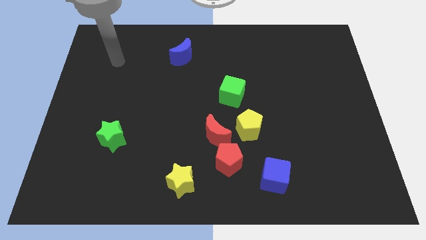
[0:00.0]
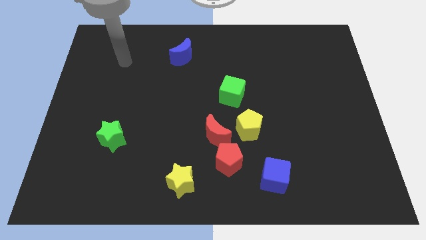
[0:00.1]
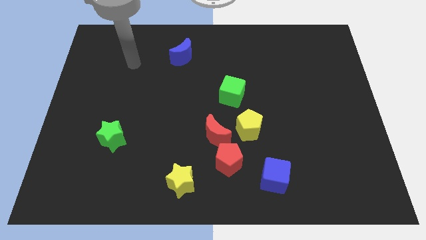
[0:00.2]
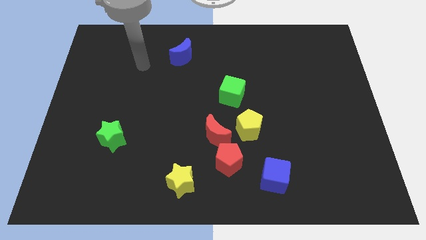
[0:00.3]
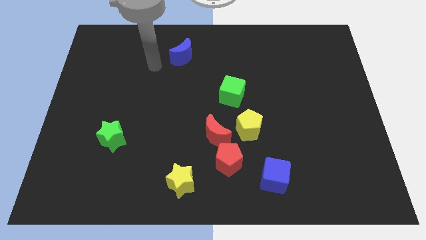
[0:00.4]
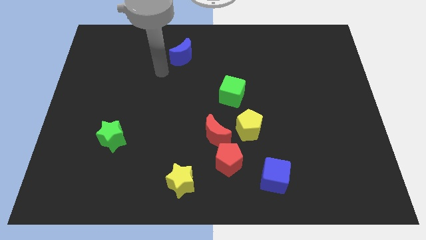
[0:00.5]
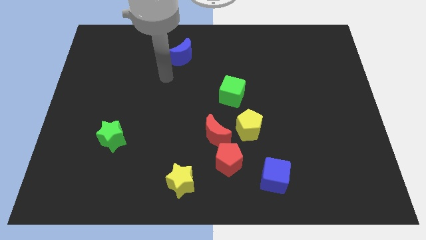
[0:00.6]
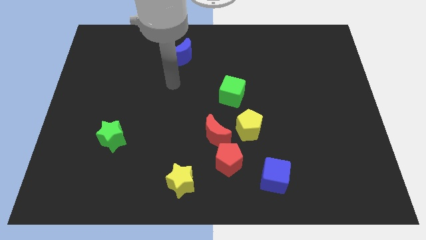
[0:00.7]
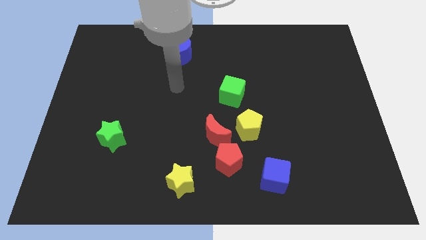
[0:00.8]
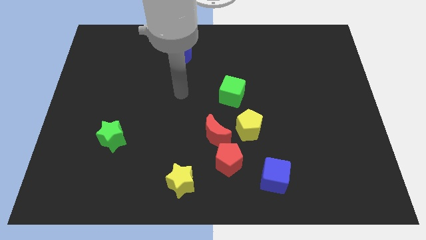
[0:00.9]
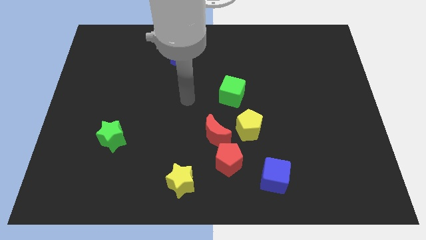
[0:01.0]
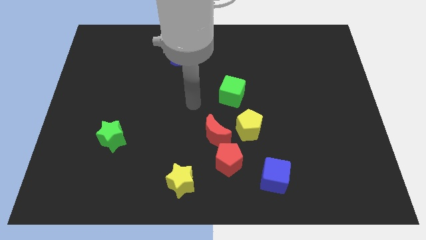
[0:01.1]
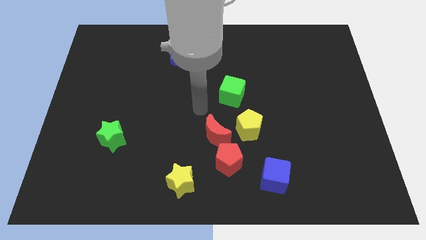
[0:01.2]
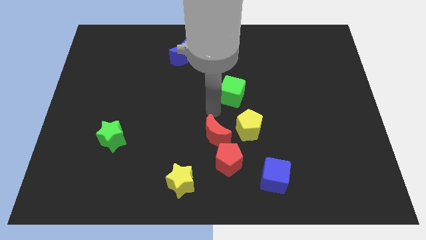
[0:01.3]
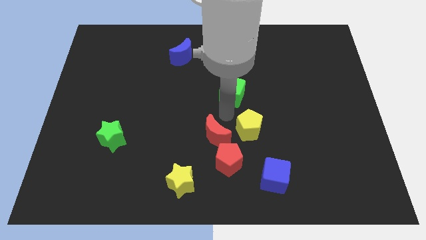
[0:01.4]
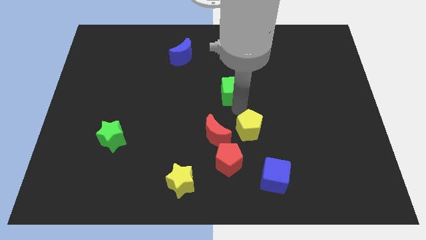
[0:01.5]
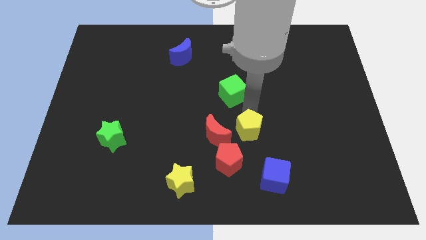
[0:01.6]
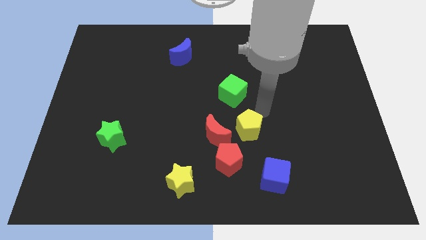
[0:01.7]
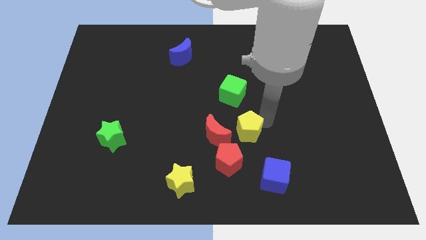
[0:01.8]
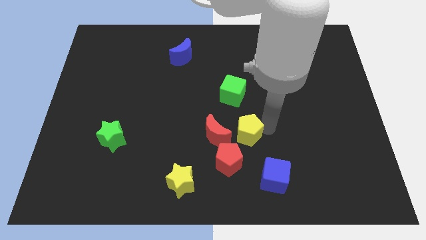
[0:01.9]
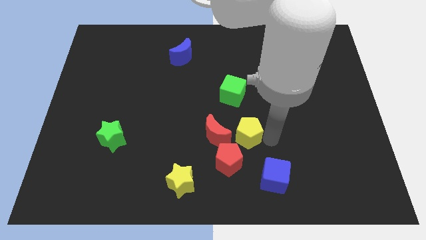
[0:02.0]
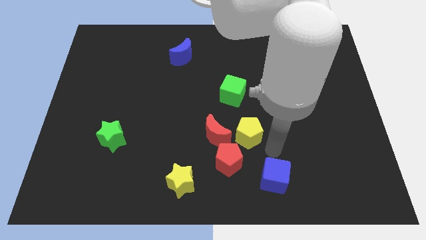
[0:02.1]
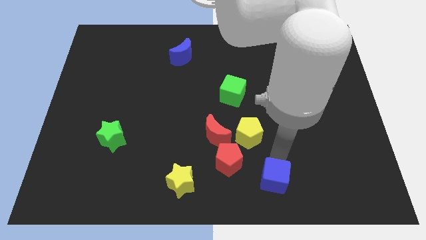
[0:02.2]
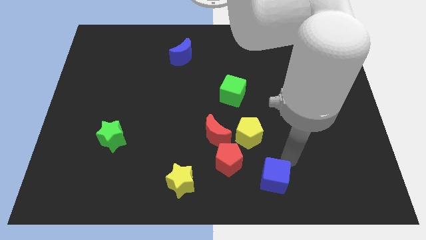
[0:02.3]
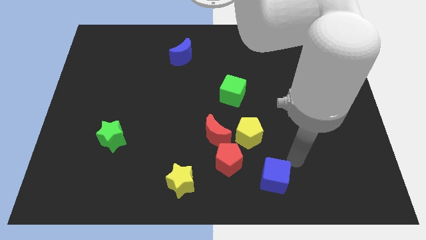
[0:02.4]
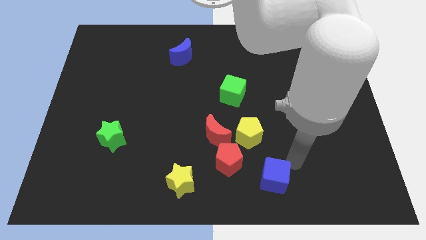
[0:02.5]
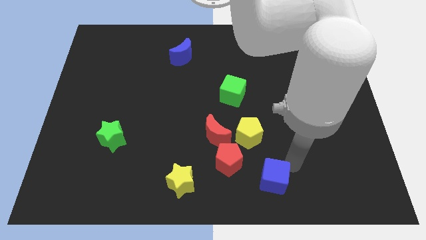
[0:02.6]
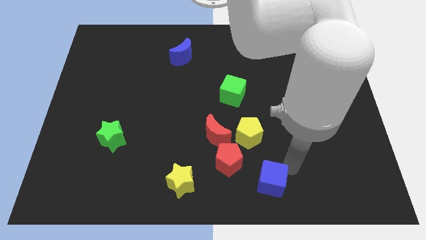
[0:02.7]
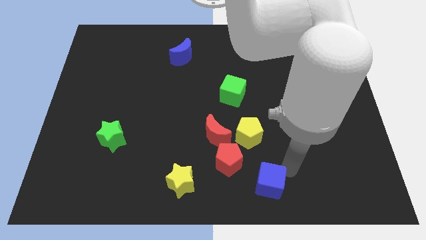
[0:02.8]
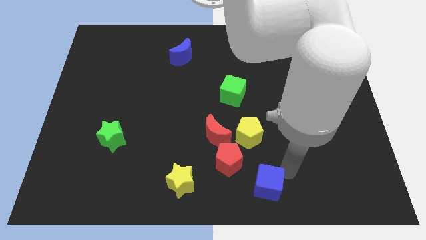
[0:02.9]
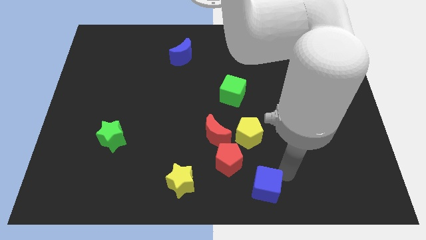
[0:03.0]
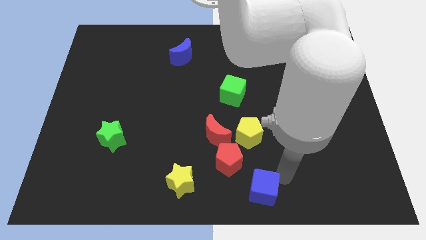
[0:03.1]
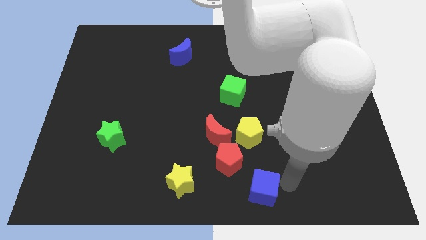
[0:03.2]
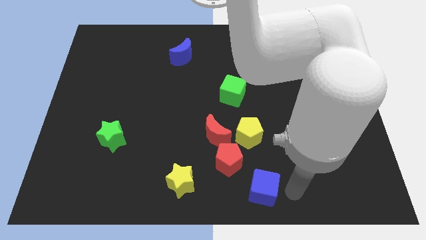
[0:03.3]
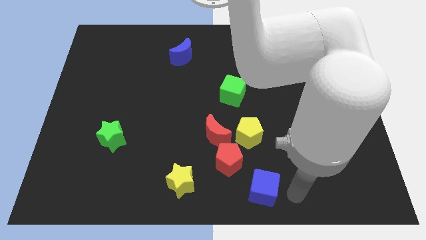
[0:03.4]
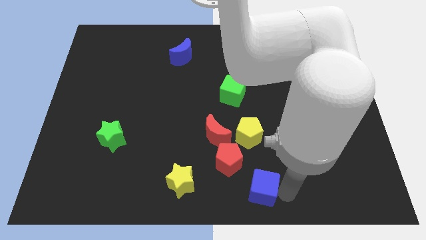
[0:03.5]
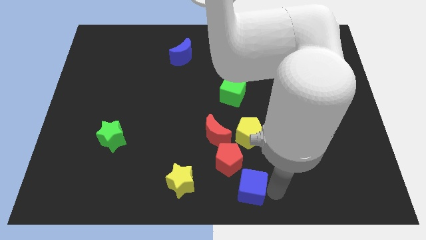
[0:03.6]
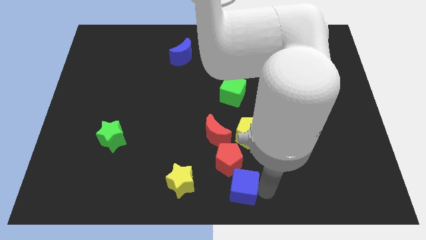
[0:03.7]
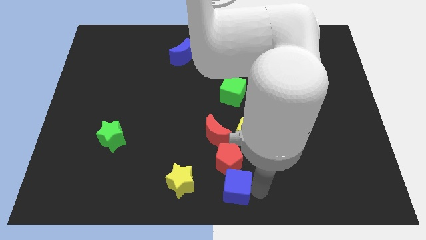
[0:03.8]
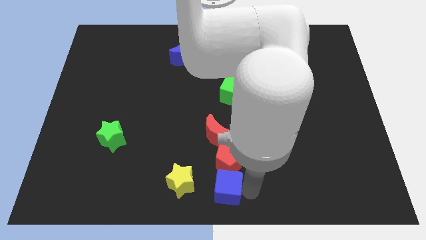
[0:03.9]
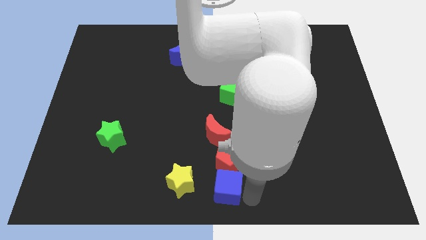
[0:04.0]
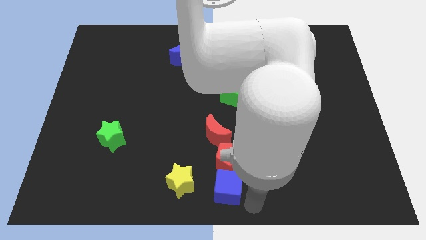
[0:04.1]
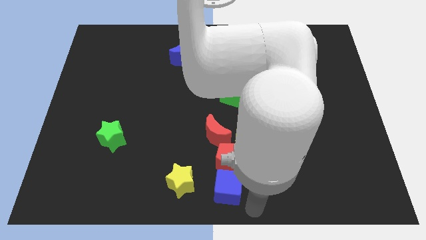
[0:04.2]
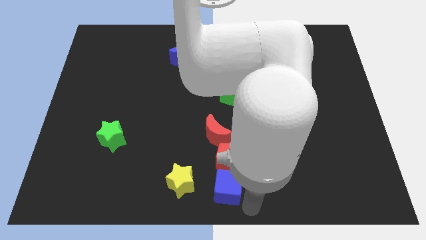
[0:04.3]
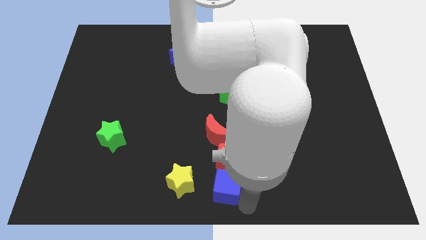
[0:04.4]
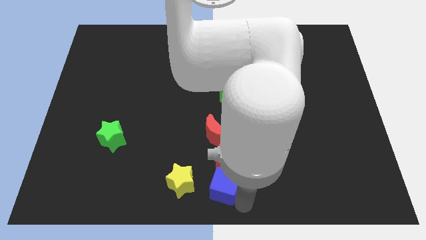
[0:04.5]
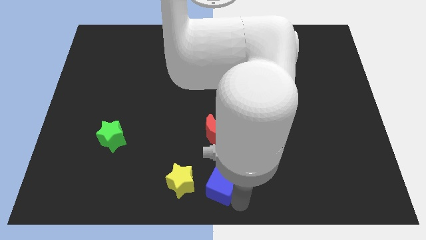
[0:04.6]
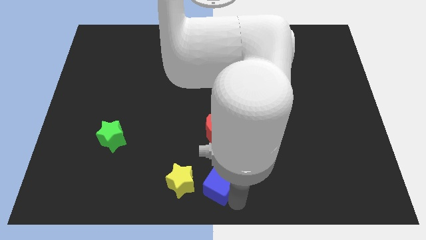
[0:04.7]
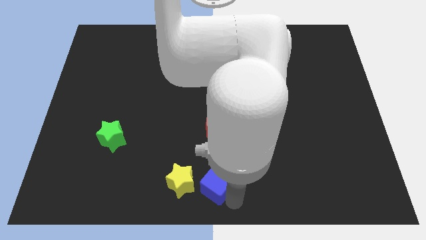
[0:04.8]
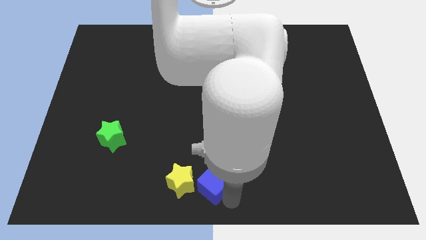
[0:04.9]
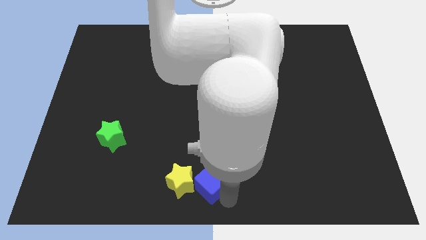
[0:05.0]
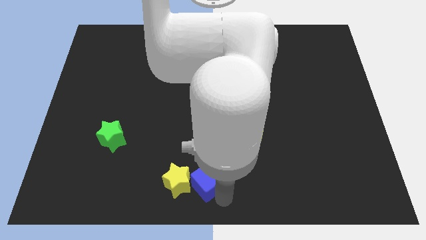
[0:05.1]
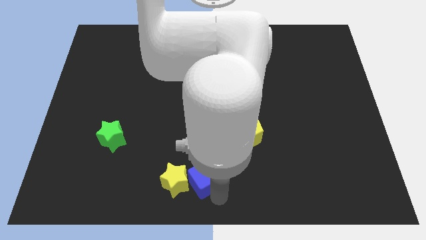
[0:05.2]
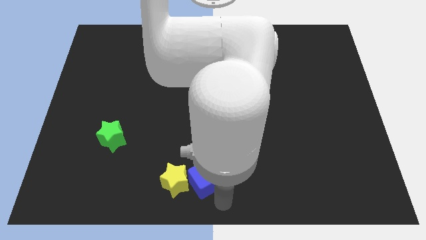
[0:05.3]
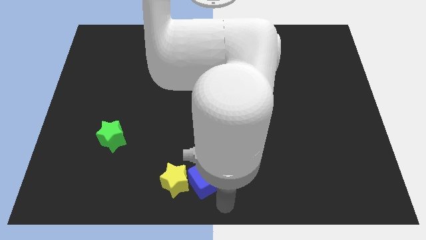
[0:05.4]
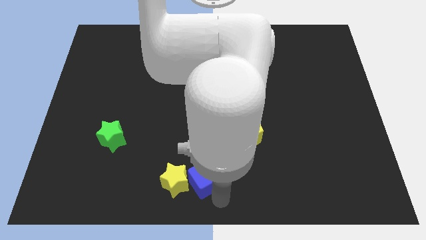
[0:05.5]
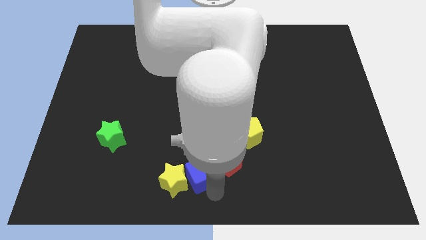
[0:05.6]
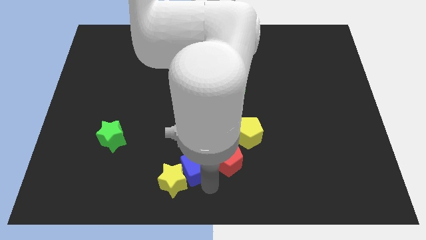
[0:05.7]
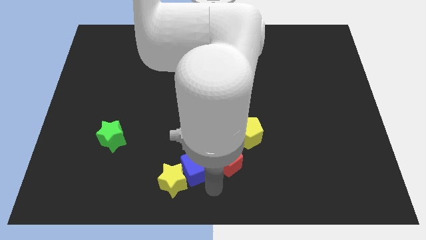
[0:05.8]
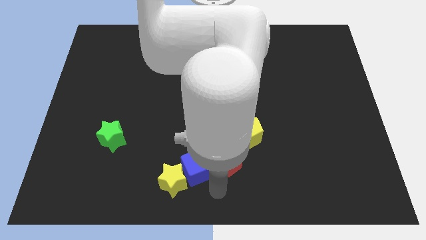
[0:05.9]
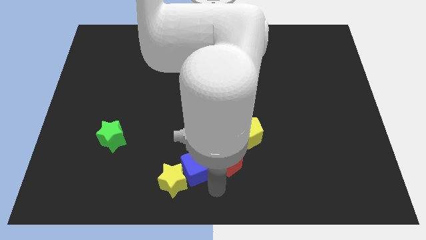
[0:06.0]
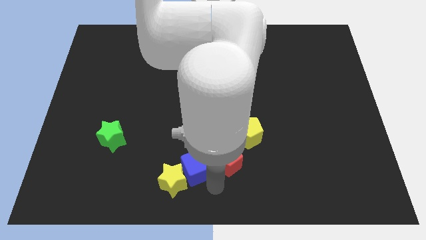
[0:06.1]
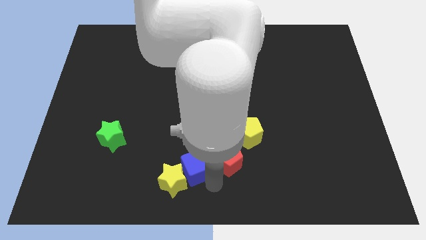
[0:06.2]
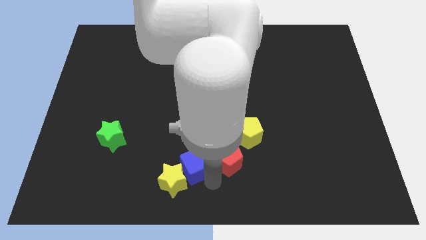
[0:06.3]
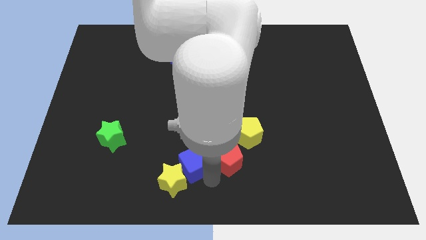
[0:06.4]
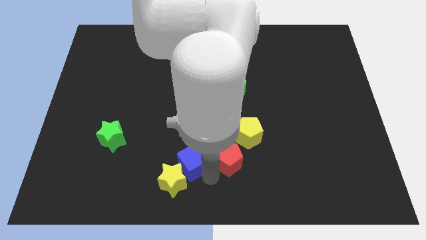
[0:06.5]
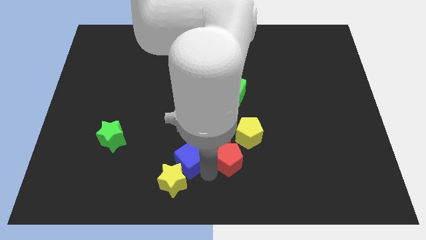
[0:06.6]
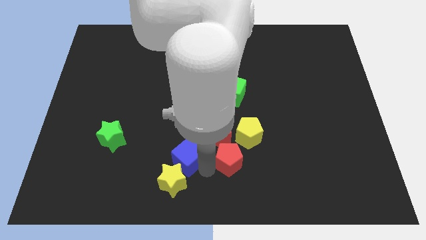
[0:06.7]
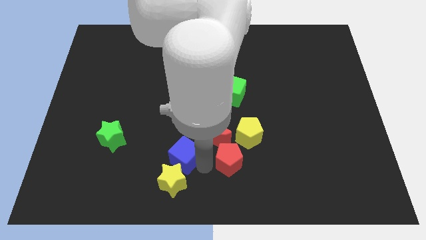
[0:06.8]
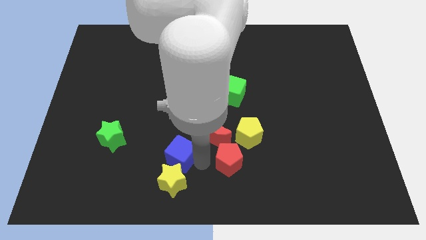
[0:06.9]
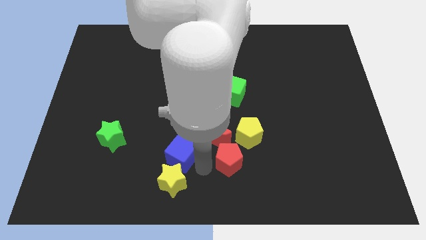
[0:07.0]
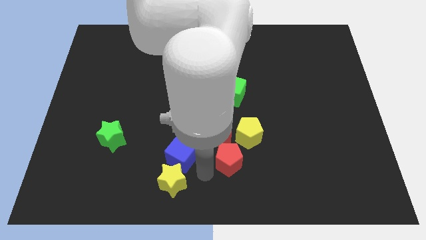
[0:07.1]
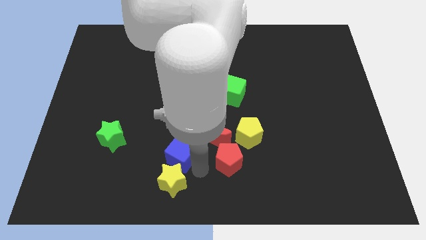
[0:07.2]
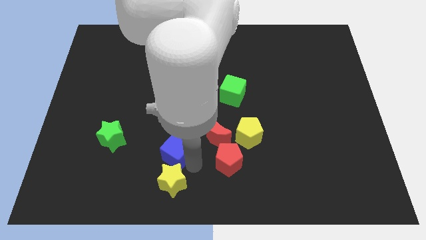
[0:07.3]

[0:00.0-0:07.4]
slide the blue cube just right of the green star
